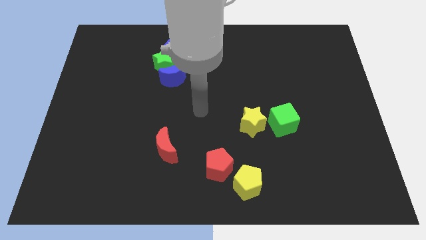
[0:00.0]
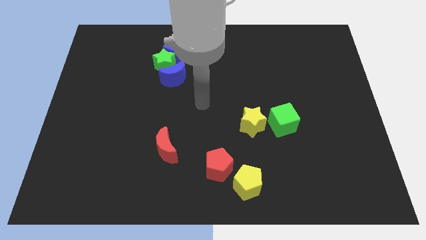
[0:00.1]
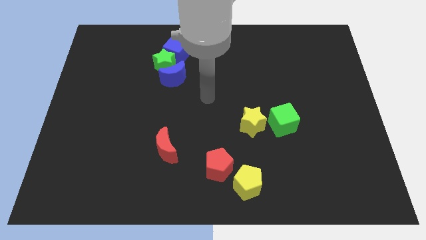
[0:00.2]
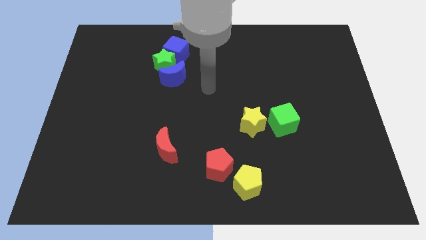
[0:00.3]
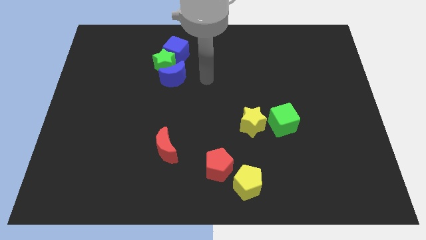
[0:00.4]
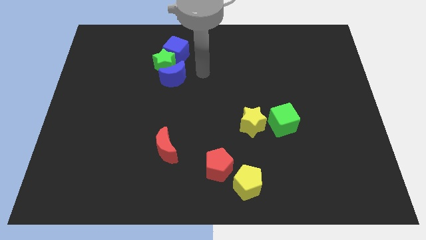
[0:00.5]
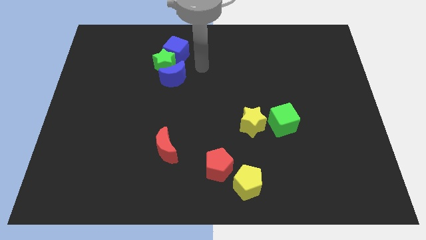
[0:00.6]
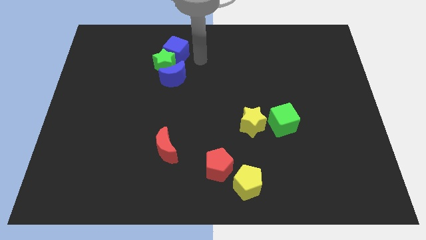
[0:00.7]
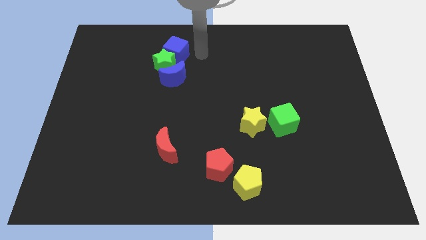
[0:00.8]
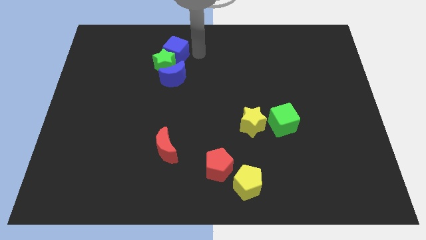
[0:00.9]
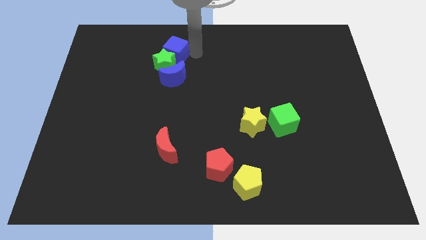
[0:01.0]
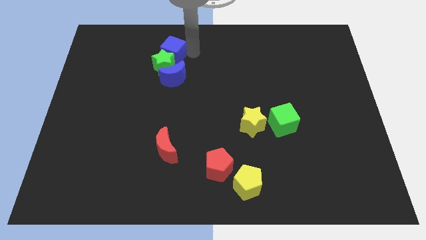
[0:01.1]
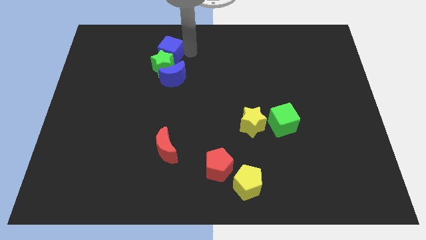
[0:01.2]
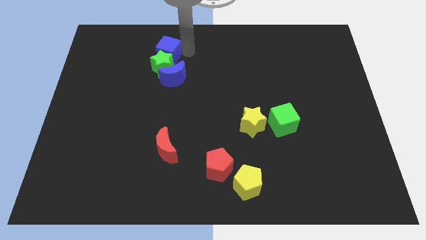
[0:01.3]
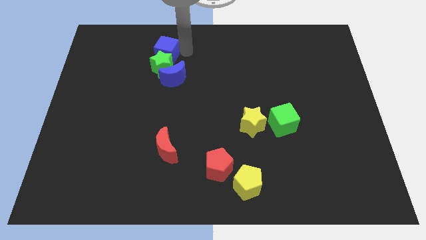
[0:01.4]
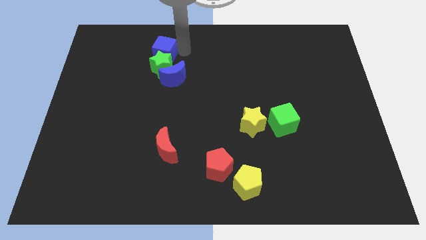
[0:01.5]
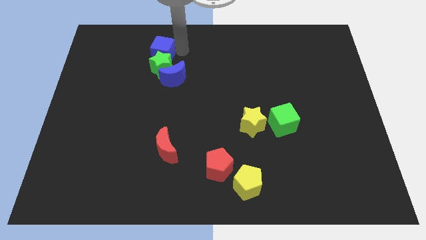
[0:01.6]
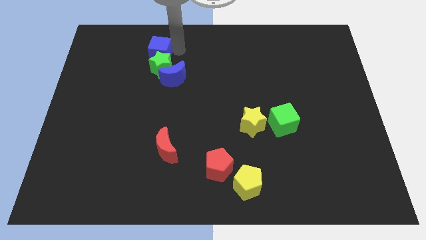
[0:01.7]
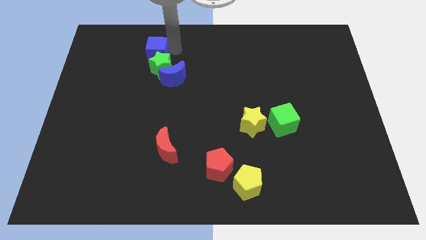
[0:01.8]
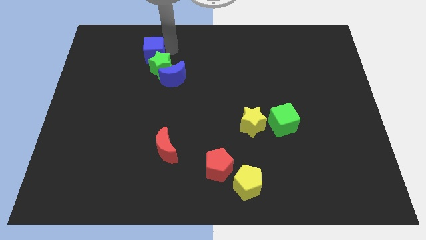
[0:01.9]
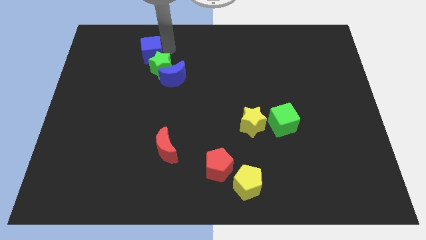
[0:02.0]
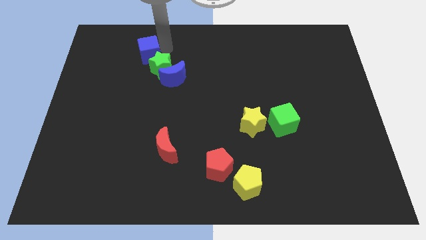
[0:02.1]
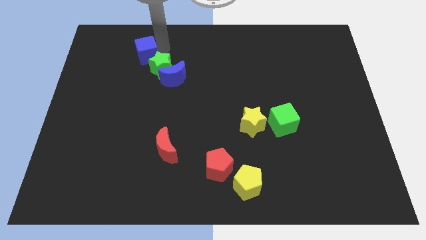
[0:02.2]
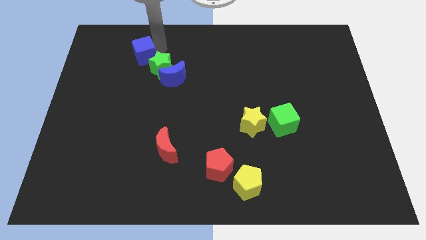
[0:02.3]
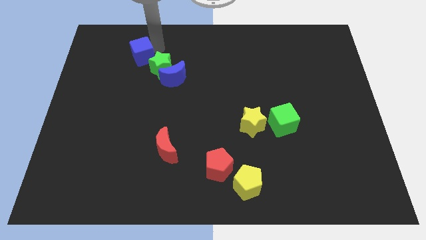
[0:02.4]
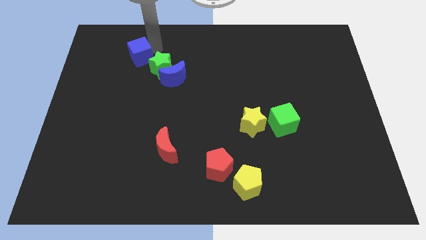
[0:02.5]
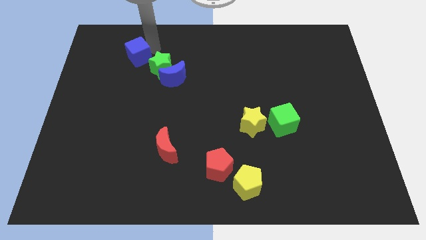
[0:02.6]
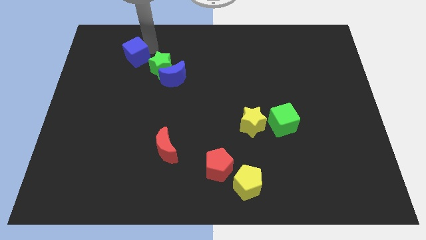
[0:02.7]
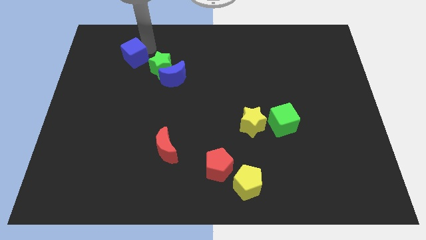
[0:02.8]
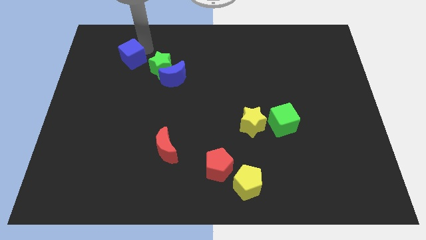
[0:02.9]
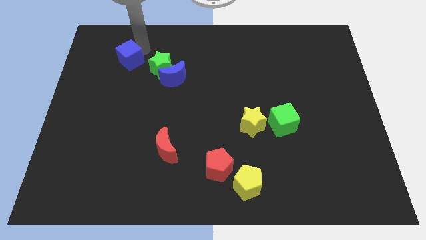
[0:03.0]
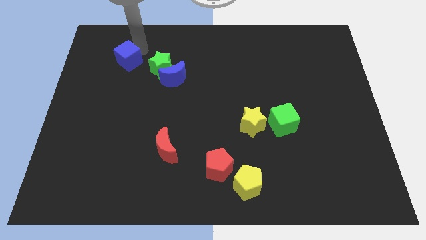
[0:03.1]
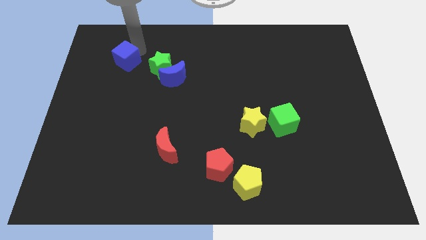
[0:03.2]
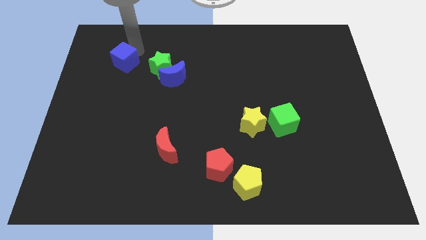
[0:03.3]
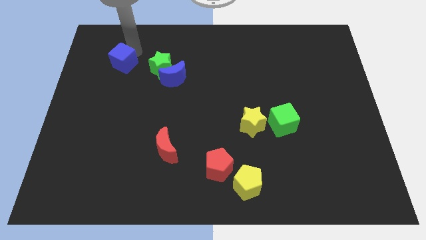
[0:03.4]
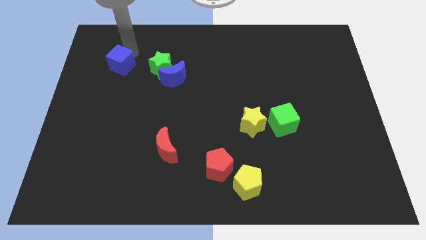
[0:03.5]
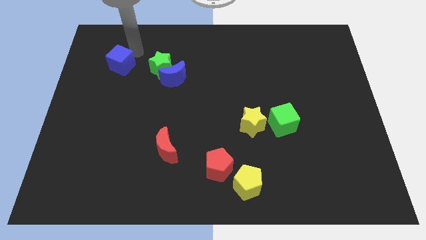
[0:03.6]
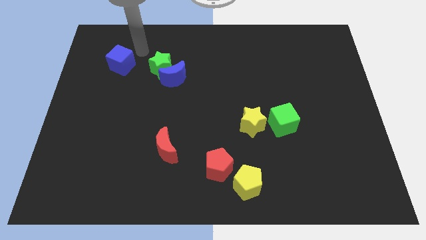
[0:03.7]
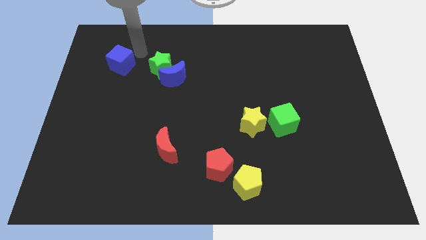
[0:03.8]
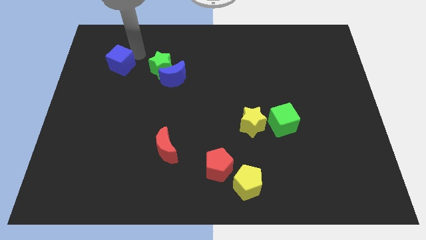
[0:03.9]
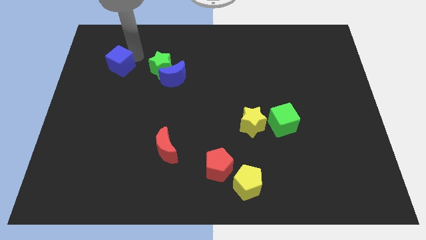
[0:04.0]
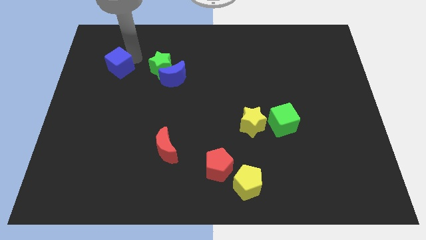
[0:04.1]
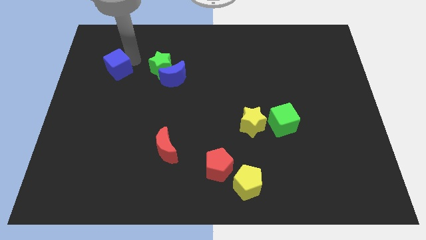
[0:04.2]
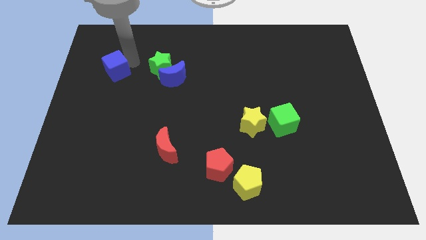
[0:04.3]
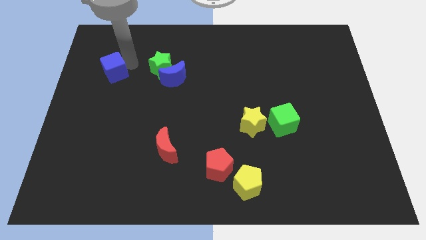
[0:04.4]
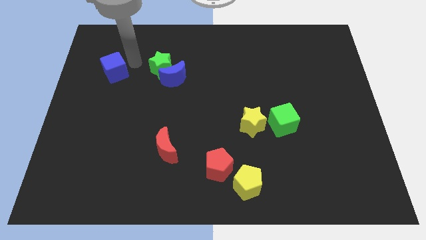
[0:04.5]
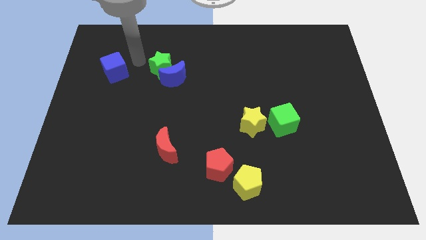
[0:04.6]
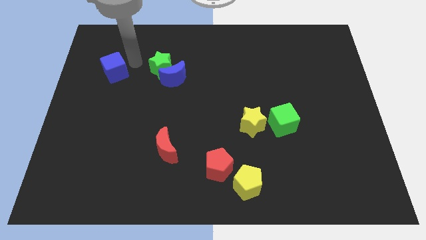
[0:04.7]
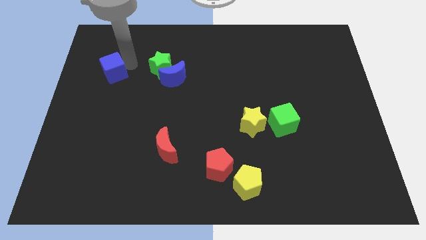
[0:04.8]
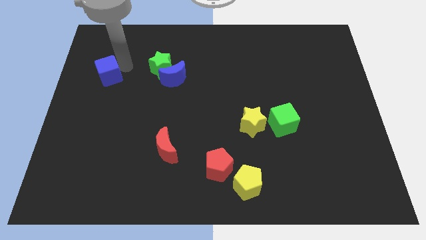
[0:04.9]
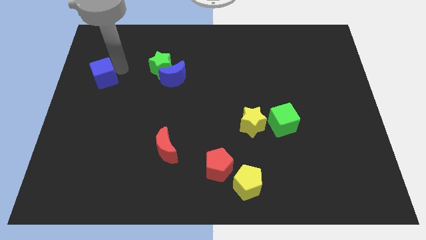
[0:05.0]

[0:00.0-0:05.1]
slide the blue cube to the left side

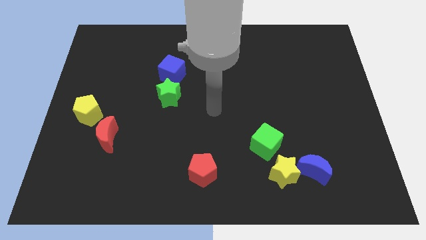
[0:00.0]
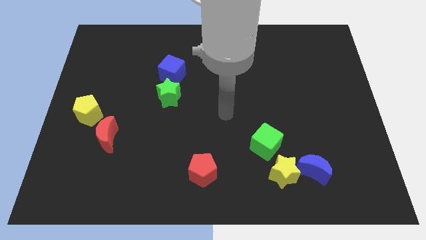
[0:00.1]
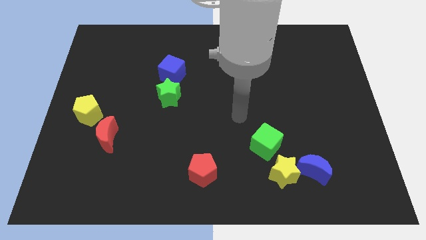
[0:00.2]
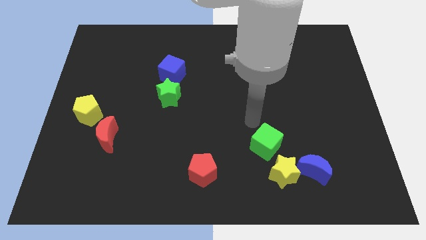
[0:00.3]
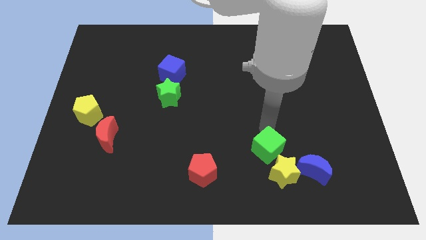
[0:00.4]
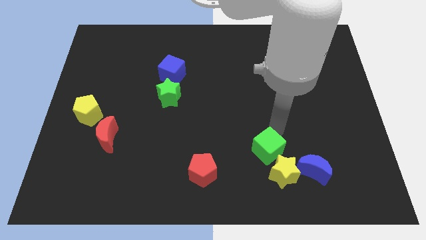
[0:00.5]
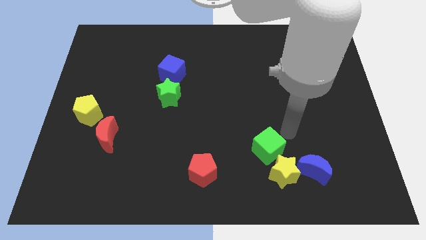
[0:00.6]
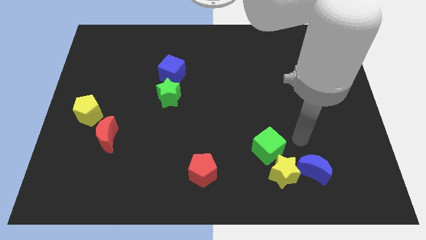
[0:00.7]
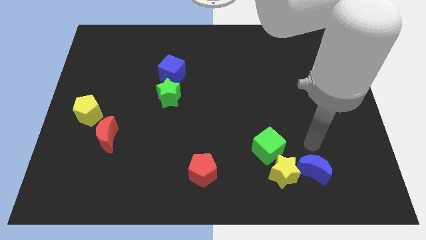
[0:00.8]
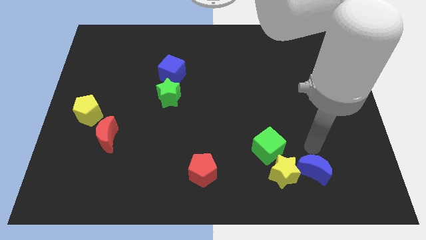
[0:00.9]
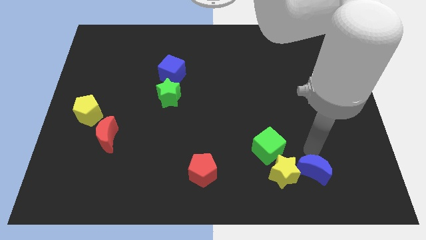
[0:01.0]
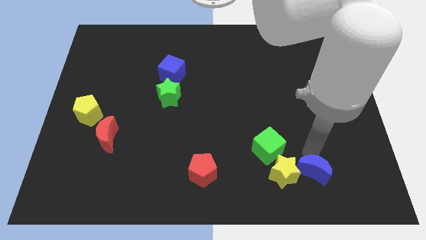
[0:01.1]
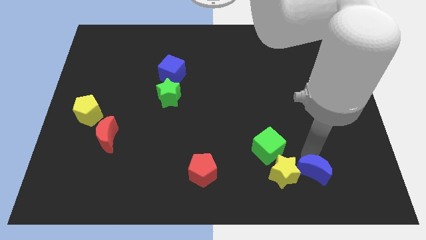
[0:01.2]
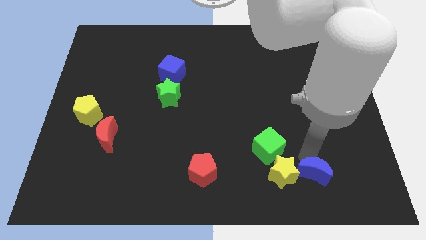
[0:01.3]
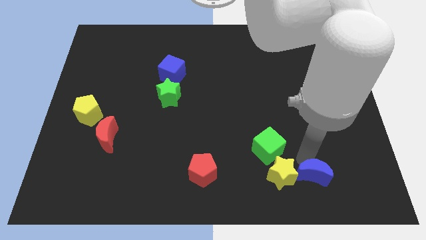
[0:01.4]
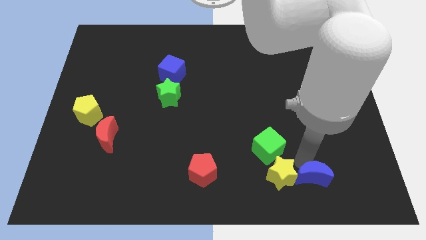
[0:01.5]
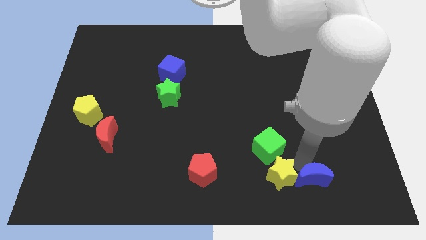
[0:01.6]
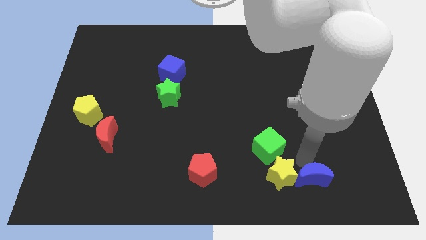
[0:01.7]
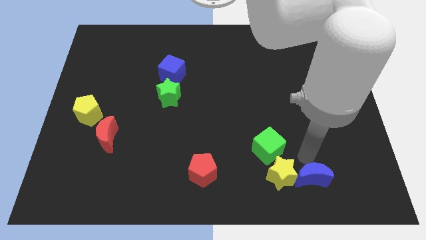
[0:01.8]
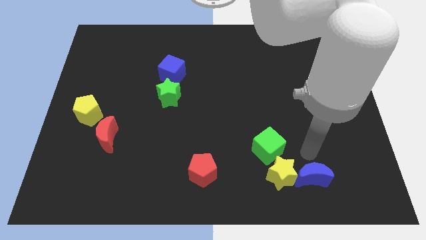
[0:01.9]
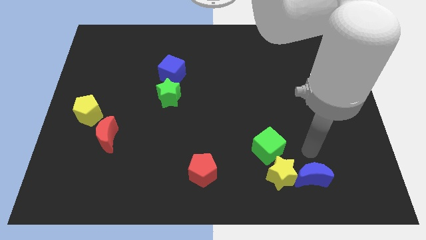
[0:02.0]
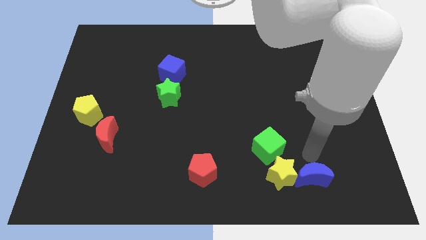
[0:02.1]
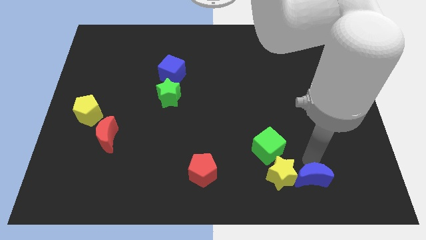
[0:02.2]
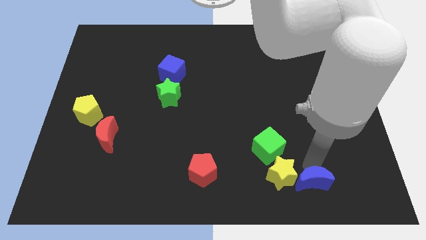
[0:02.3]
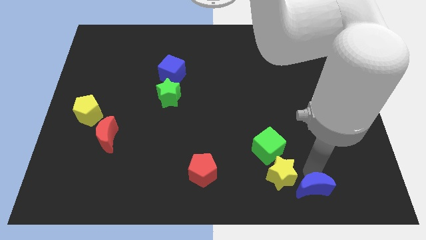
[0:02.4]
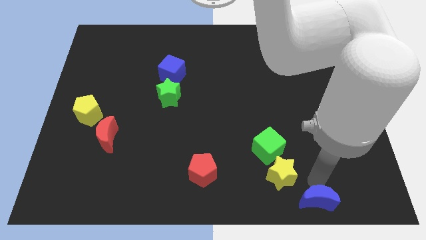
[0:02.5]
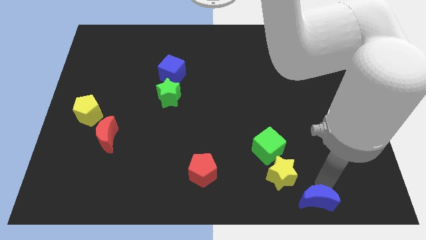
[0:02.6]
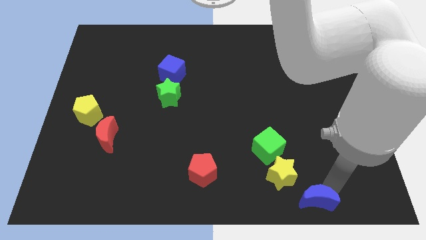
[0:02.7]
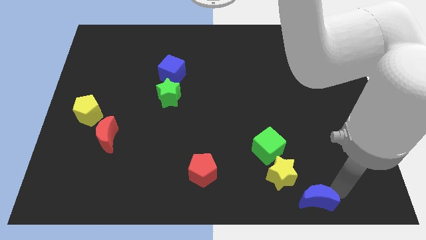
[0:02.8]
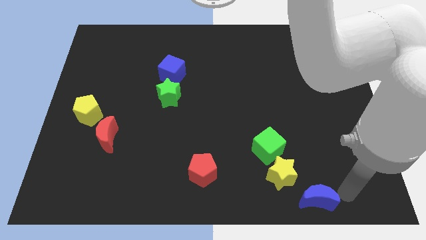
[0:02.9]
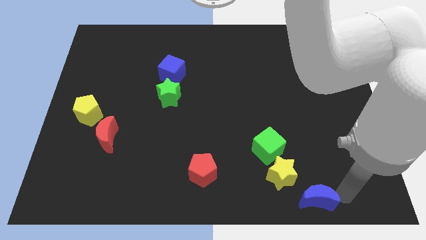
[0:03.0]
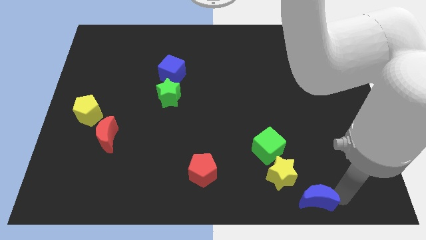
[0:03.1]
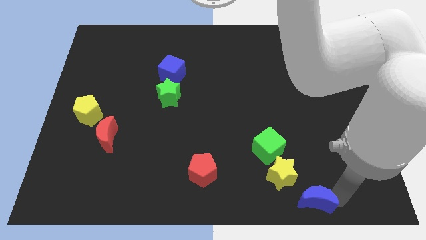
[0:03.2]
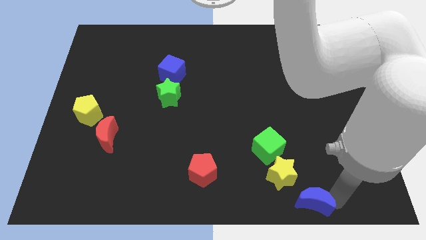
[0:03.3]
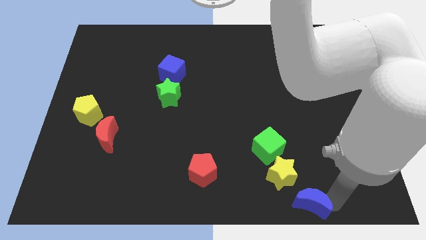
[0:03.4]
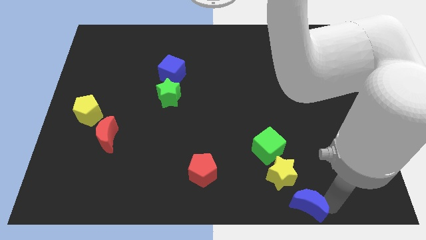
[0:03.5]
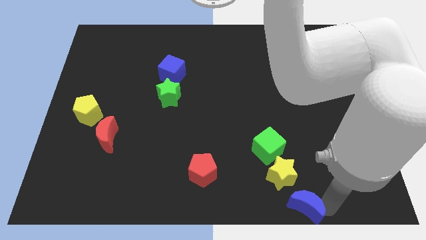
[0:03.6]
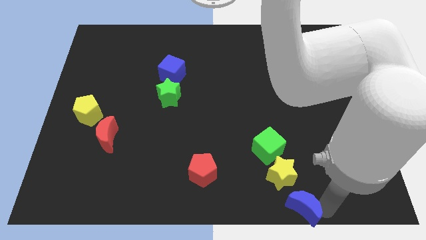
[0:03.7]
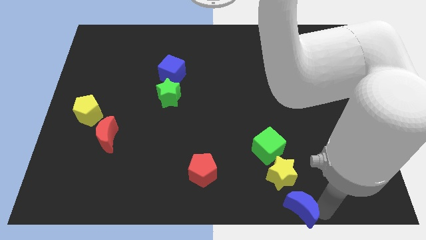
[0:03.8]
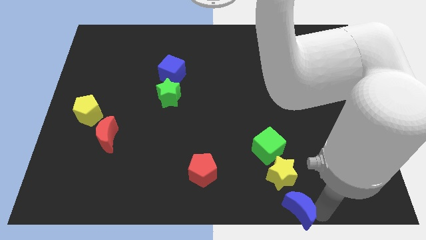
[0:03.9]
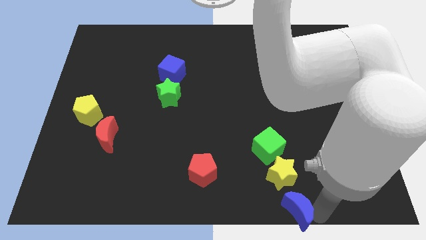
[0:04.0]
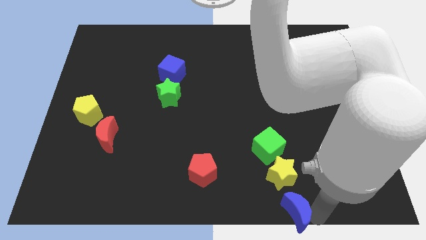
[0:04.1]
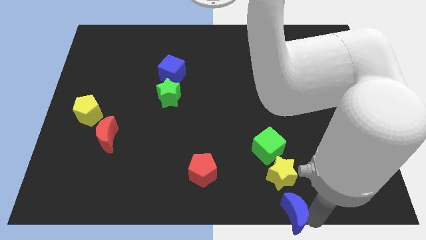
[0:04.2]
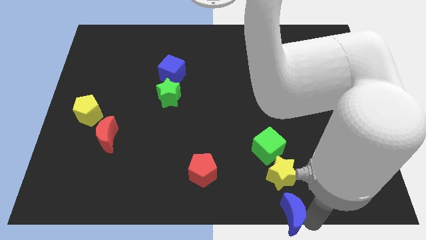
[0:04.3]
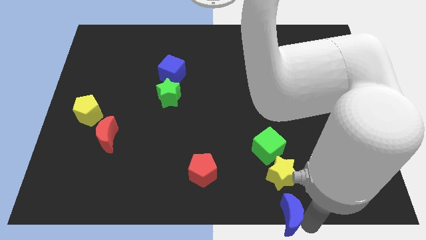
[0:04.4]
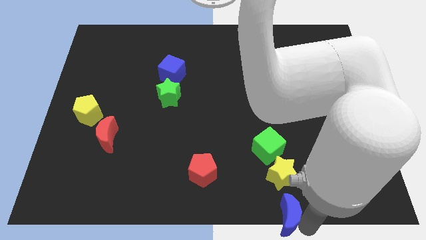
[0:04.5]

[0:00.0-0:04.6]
move the blue moon to the bottom
